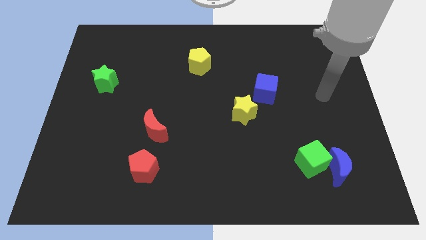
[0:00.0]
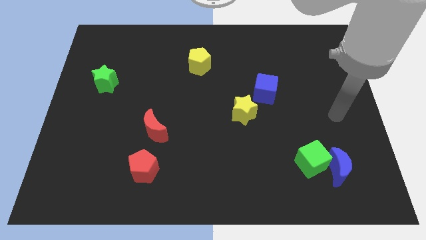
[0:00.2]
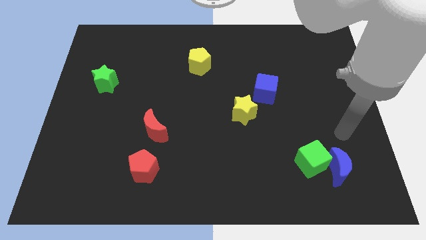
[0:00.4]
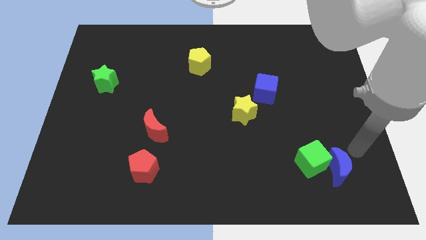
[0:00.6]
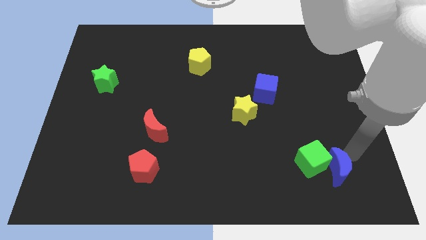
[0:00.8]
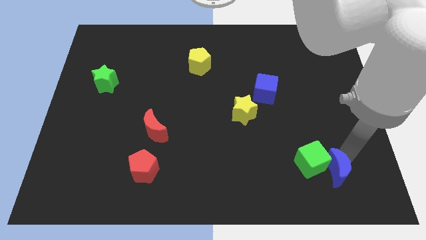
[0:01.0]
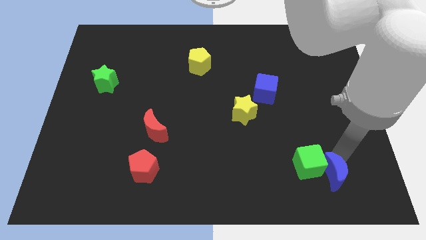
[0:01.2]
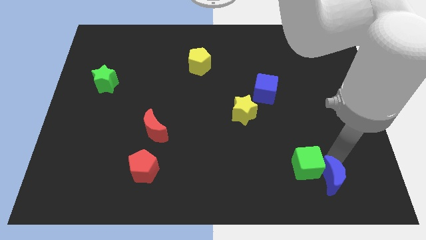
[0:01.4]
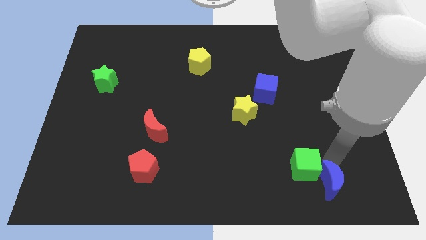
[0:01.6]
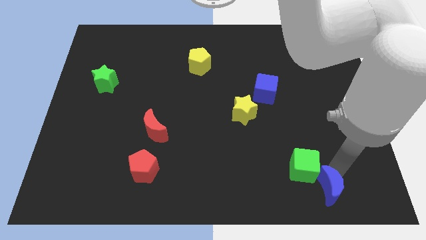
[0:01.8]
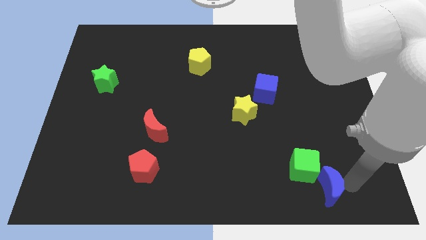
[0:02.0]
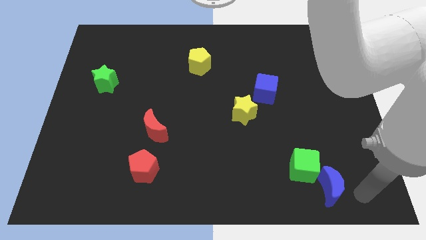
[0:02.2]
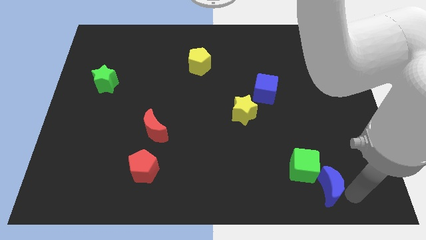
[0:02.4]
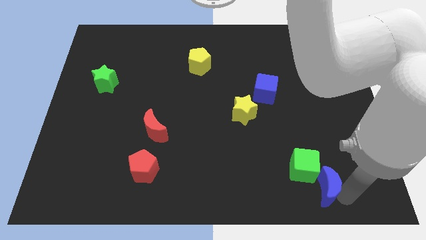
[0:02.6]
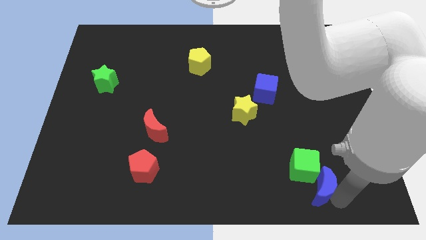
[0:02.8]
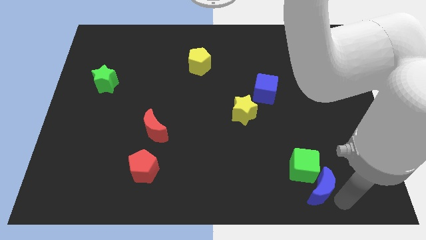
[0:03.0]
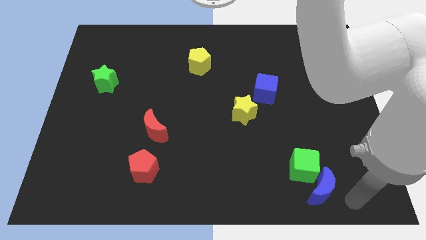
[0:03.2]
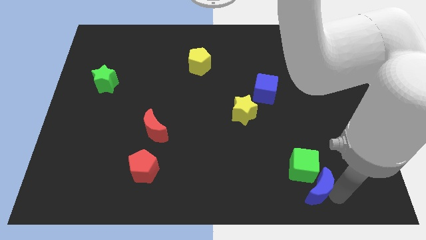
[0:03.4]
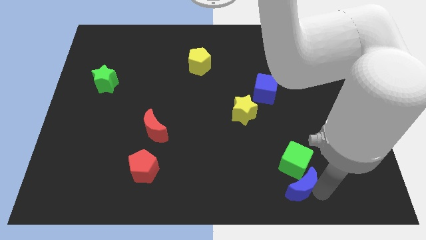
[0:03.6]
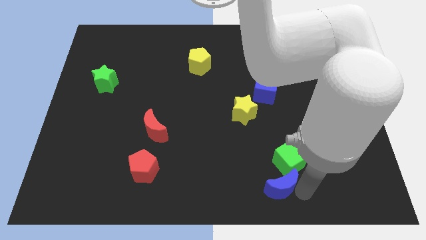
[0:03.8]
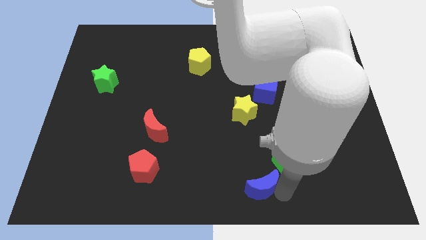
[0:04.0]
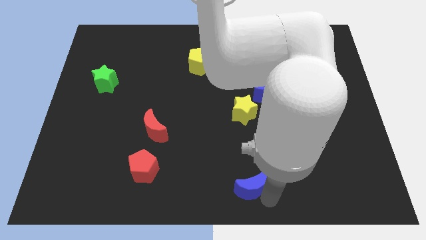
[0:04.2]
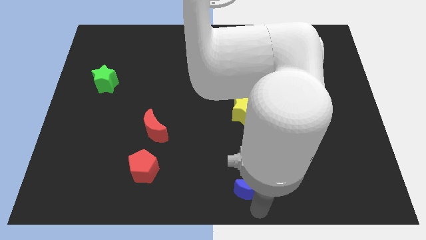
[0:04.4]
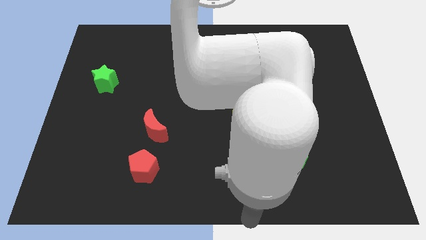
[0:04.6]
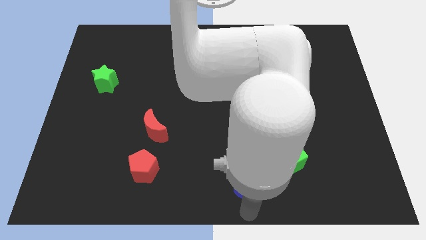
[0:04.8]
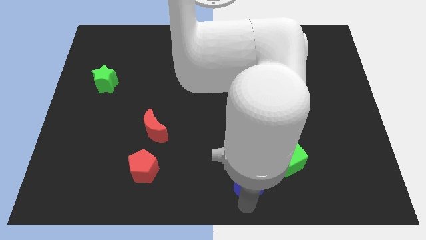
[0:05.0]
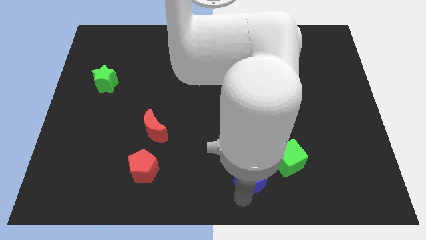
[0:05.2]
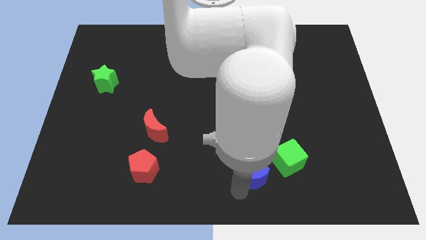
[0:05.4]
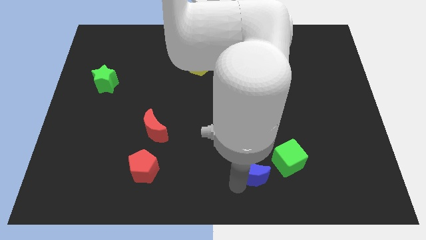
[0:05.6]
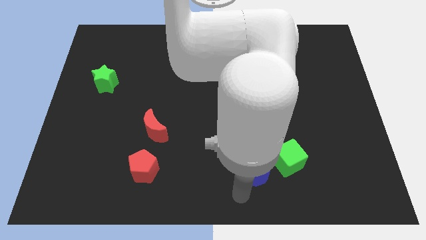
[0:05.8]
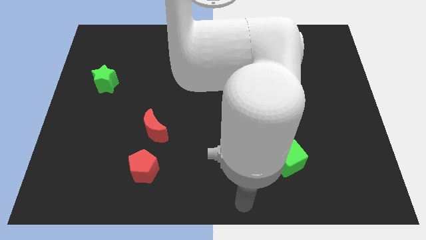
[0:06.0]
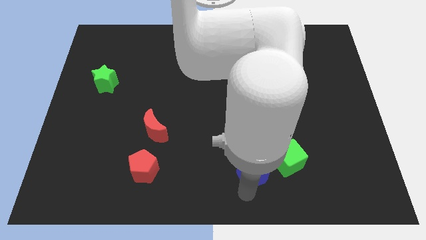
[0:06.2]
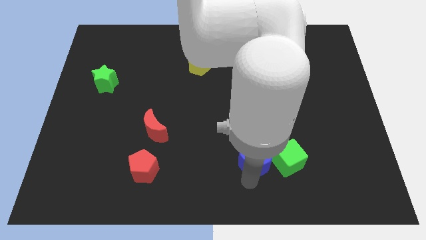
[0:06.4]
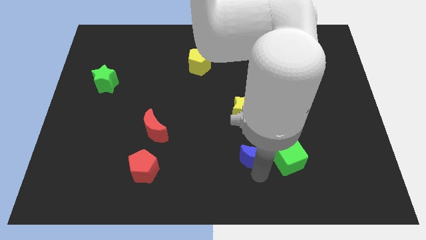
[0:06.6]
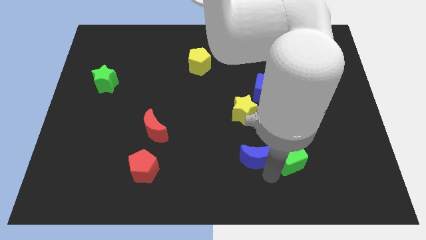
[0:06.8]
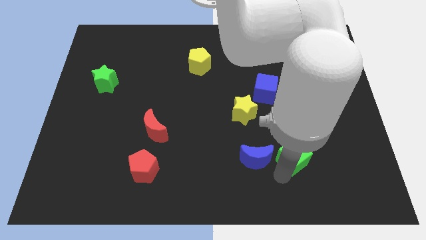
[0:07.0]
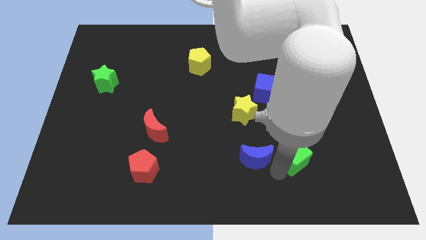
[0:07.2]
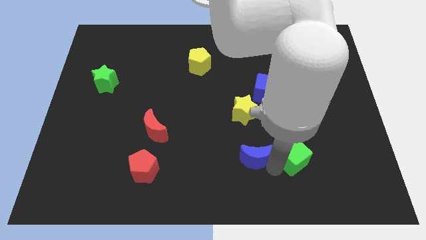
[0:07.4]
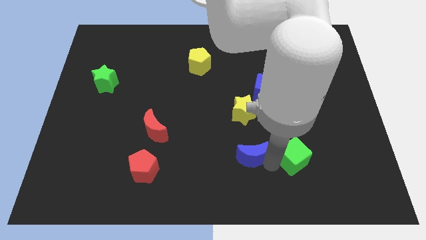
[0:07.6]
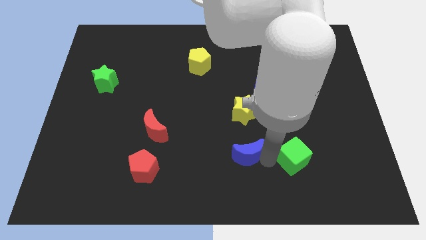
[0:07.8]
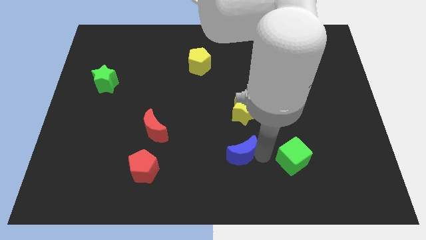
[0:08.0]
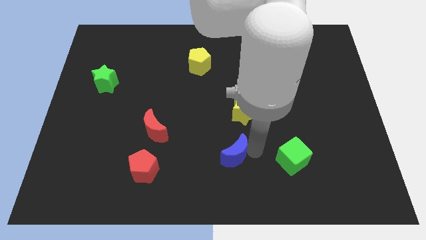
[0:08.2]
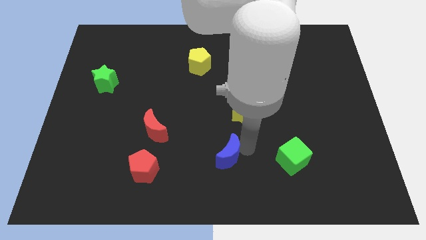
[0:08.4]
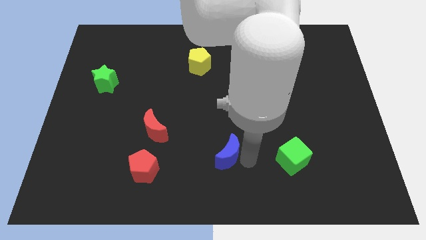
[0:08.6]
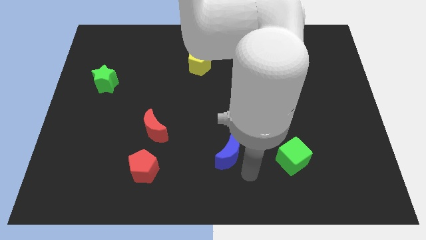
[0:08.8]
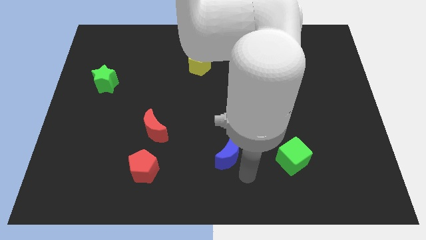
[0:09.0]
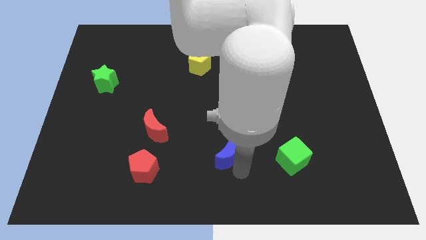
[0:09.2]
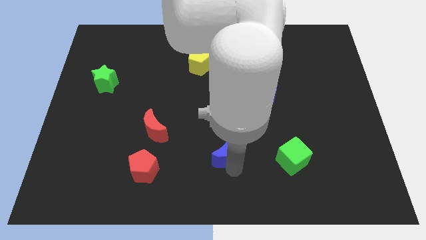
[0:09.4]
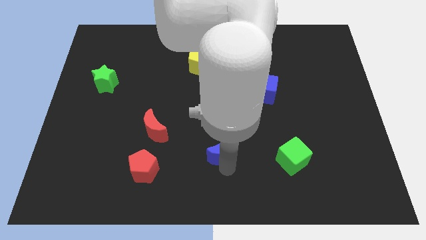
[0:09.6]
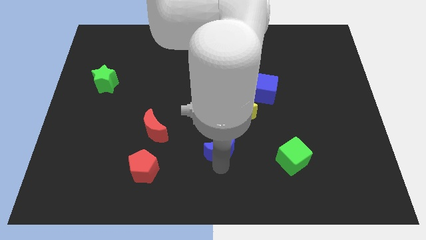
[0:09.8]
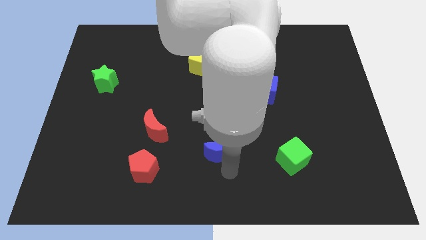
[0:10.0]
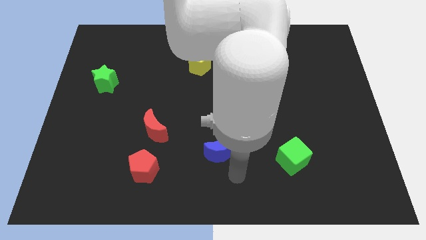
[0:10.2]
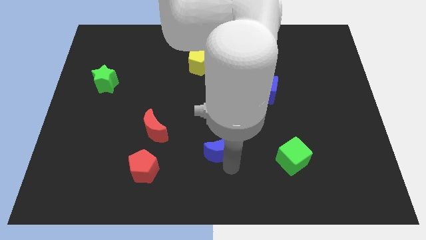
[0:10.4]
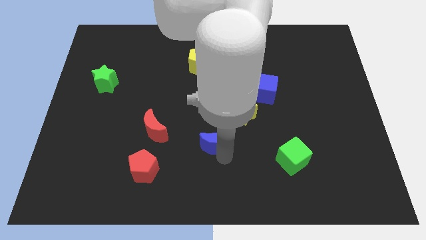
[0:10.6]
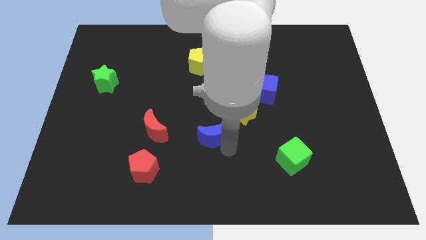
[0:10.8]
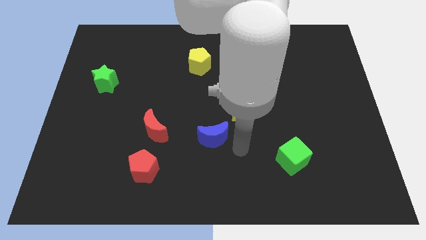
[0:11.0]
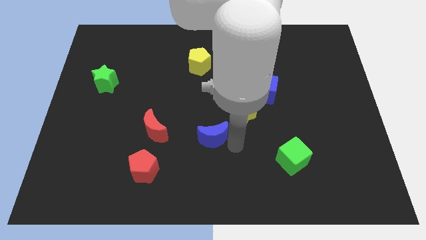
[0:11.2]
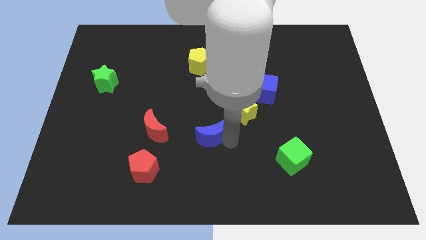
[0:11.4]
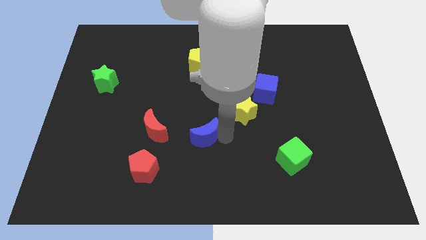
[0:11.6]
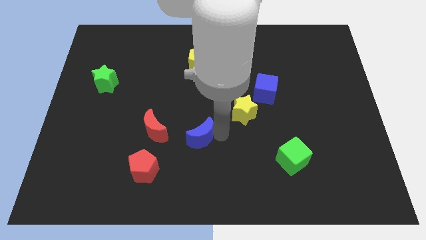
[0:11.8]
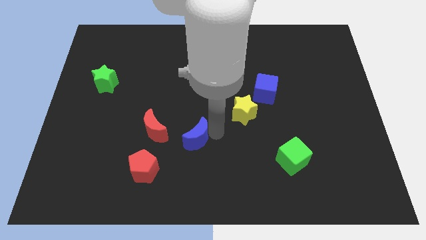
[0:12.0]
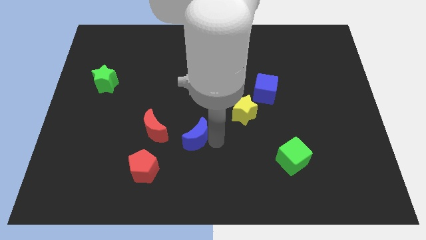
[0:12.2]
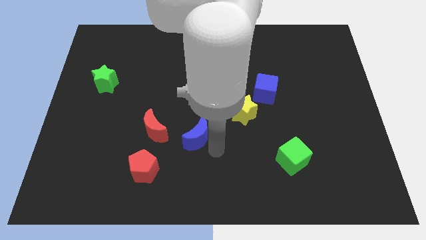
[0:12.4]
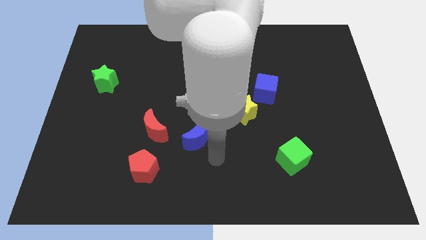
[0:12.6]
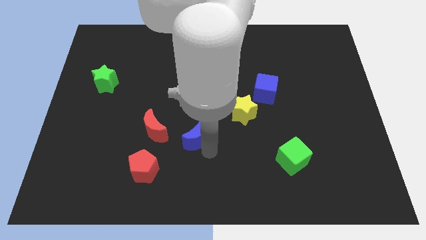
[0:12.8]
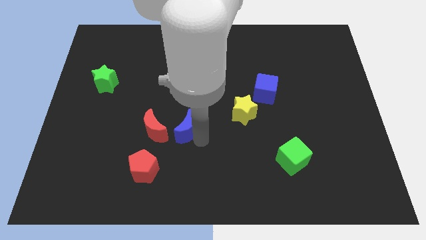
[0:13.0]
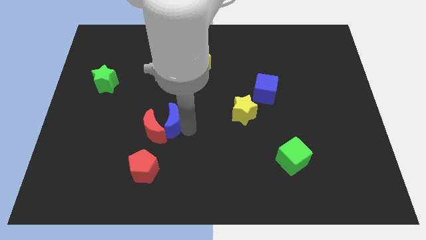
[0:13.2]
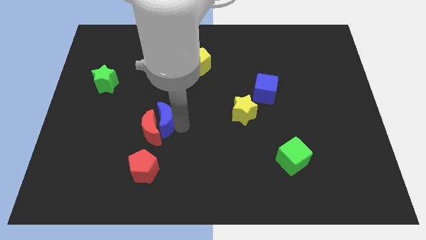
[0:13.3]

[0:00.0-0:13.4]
push the blue moon to the top of the red pentagon

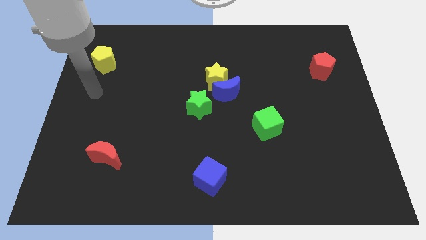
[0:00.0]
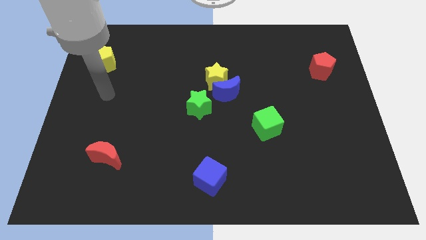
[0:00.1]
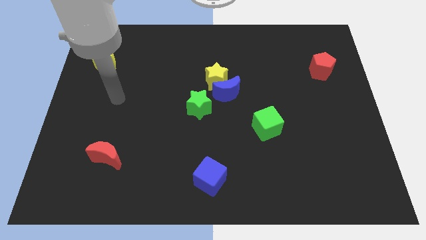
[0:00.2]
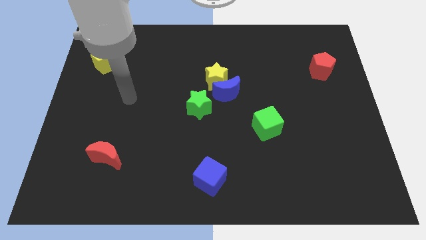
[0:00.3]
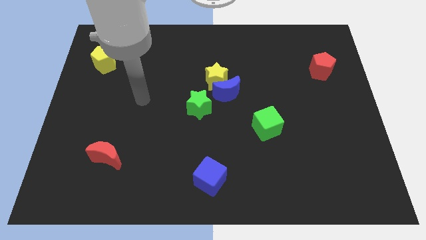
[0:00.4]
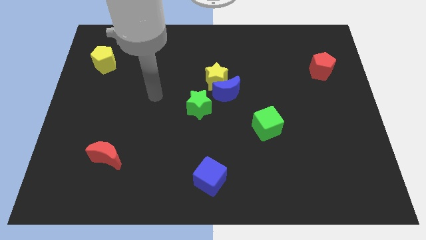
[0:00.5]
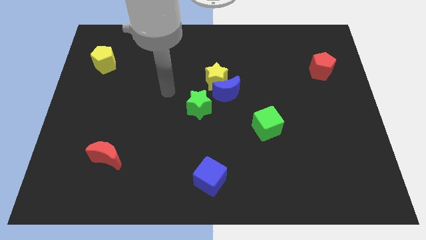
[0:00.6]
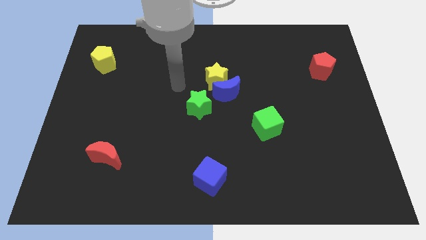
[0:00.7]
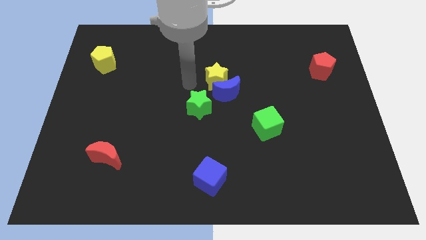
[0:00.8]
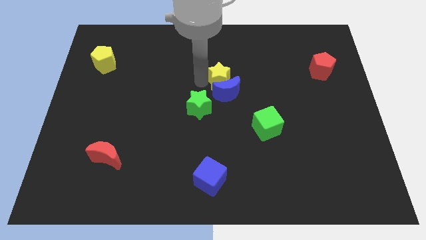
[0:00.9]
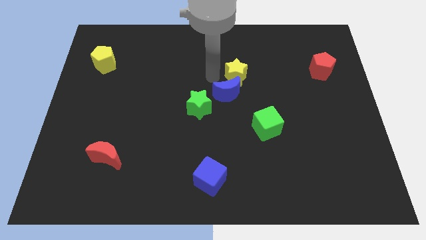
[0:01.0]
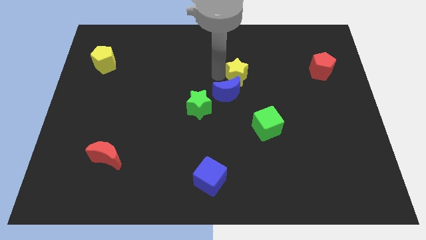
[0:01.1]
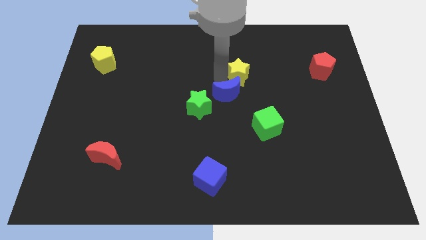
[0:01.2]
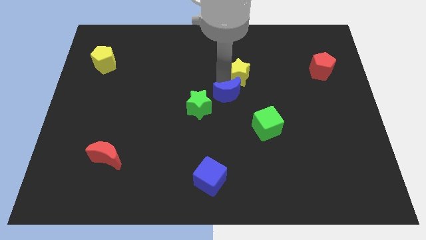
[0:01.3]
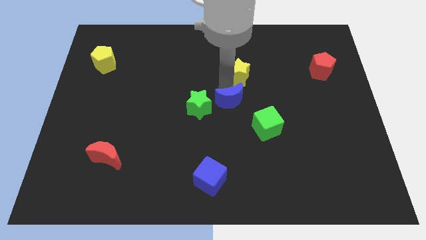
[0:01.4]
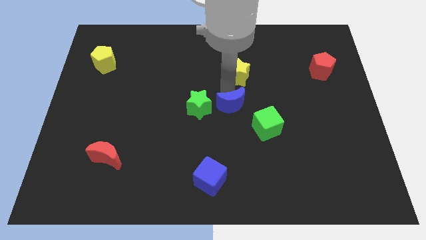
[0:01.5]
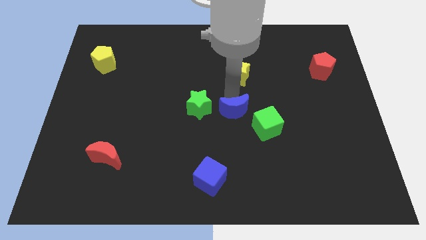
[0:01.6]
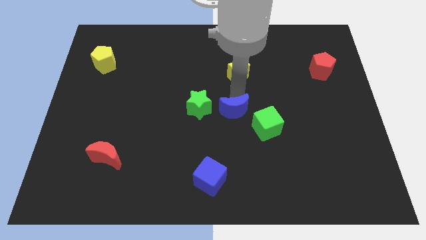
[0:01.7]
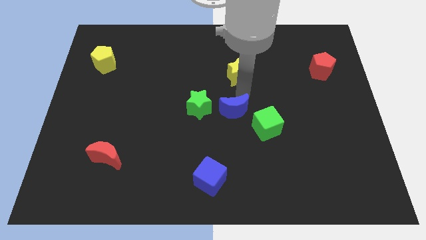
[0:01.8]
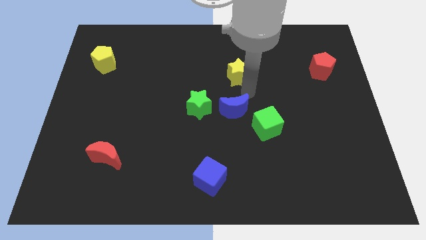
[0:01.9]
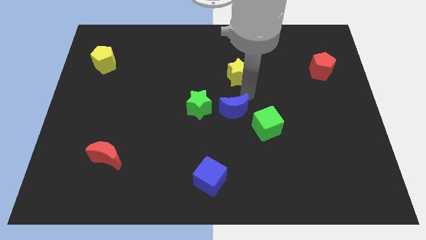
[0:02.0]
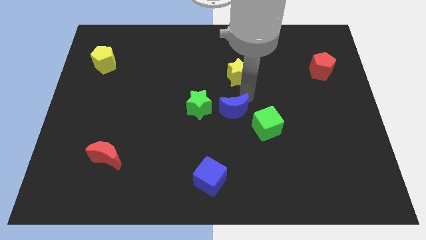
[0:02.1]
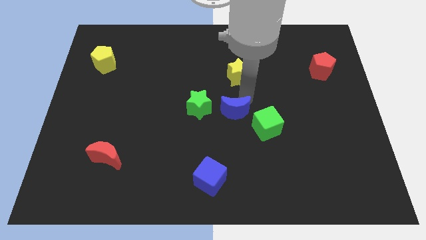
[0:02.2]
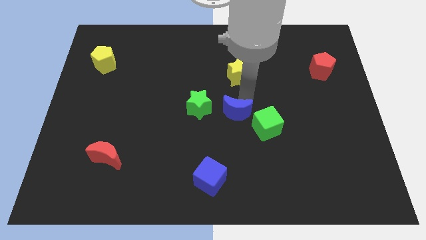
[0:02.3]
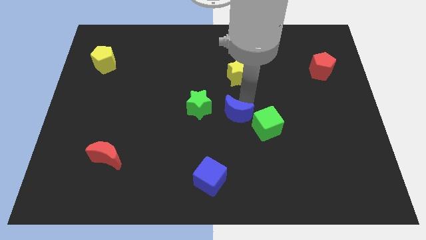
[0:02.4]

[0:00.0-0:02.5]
move the blue moon diagonally down and to the right of the green star
